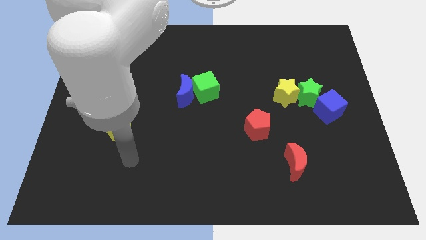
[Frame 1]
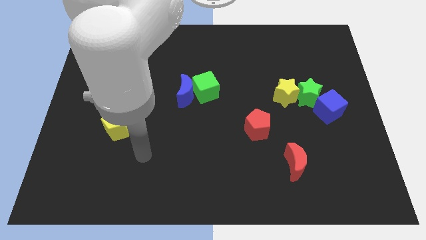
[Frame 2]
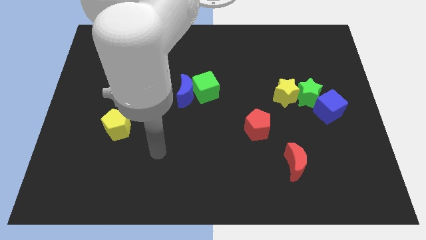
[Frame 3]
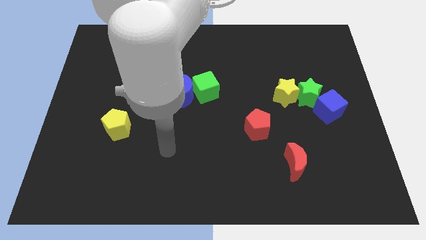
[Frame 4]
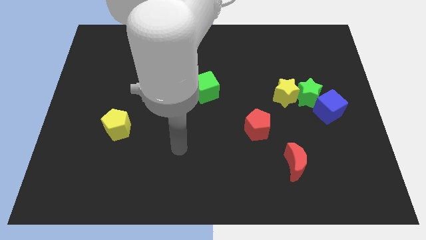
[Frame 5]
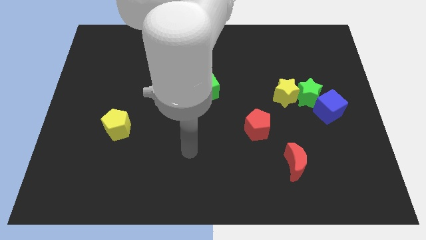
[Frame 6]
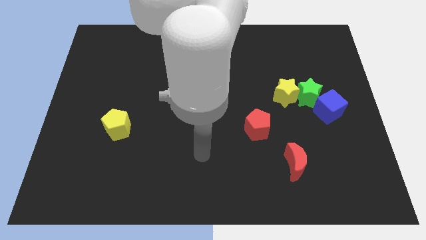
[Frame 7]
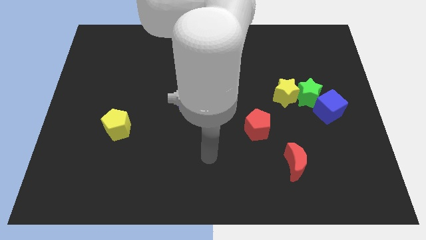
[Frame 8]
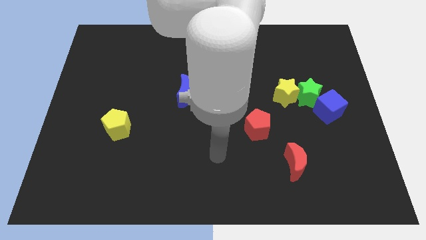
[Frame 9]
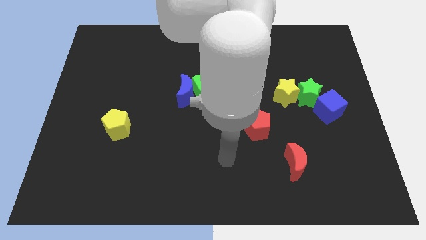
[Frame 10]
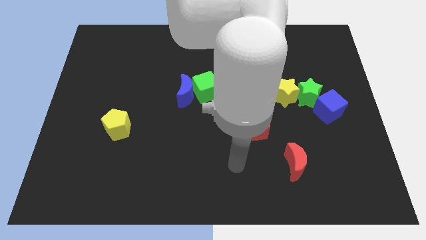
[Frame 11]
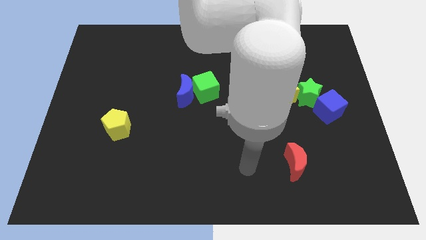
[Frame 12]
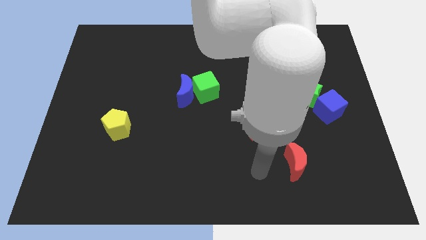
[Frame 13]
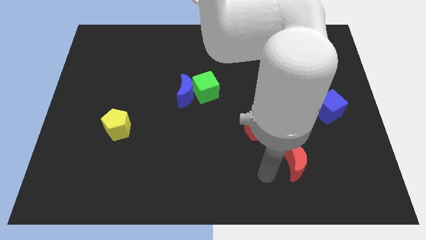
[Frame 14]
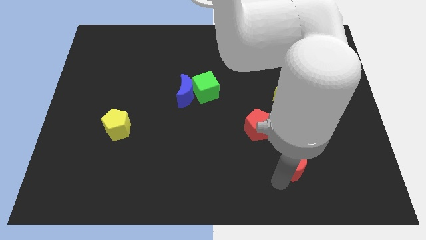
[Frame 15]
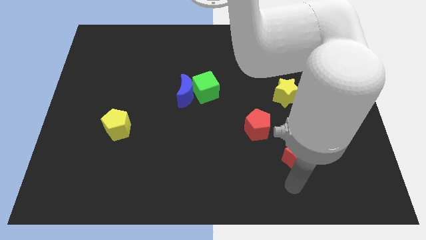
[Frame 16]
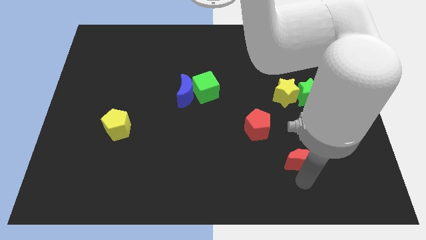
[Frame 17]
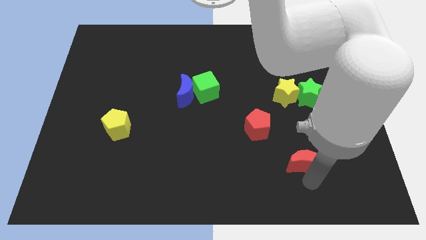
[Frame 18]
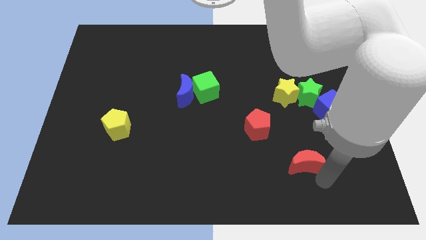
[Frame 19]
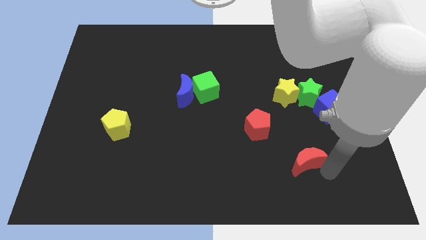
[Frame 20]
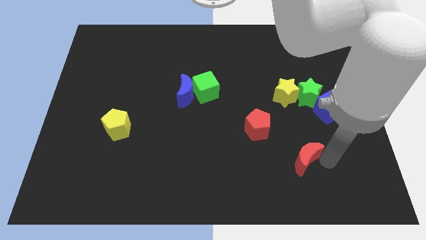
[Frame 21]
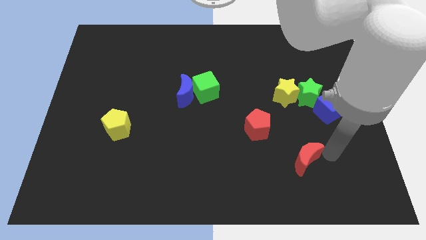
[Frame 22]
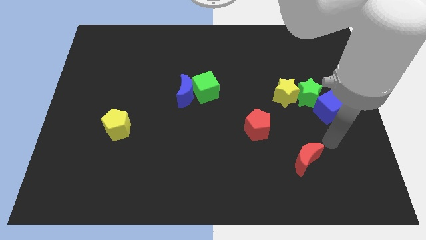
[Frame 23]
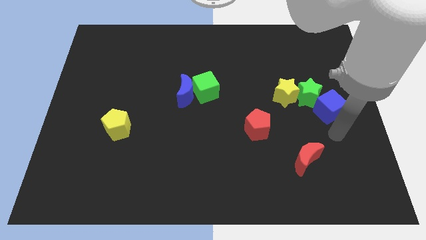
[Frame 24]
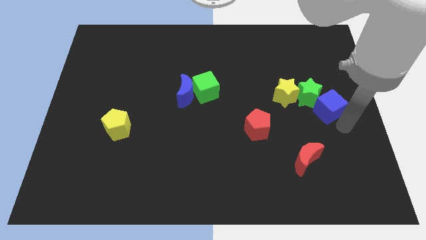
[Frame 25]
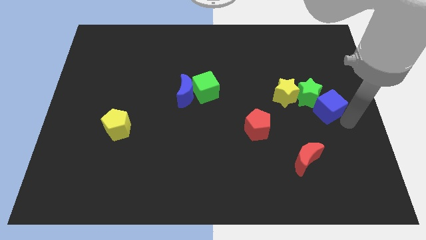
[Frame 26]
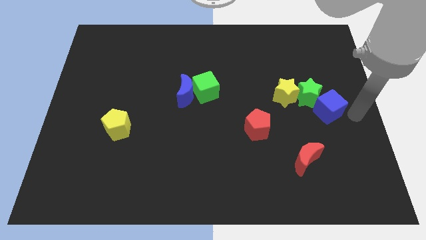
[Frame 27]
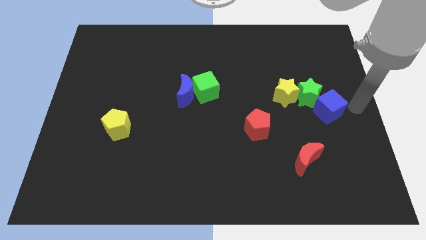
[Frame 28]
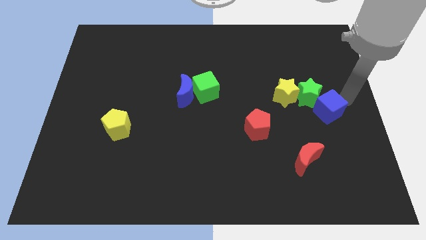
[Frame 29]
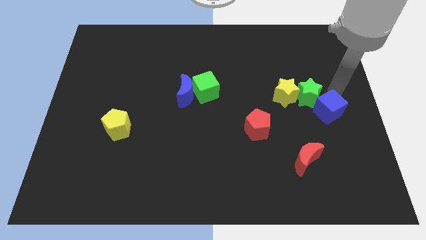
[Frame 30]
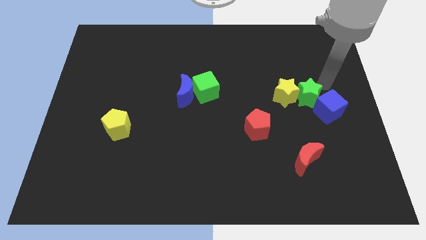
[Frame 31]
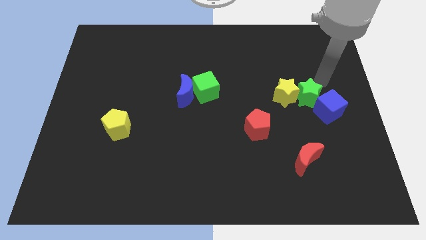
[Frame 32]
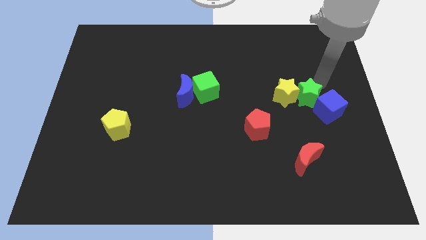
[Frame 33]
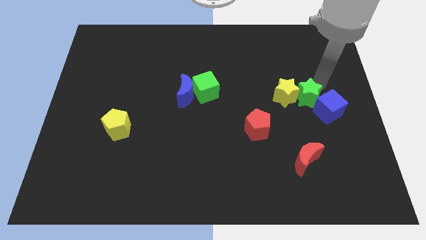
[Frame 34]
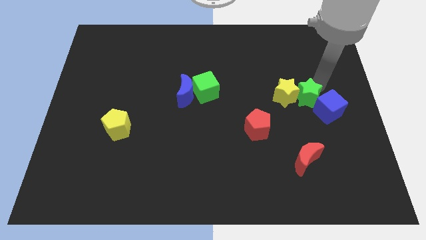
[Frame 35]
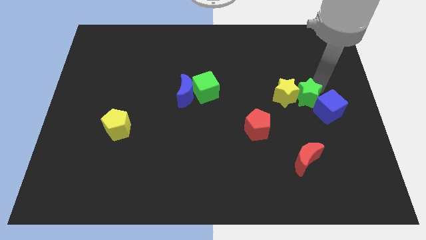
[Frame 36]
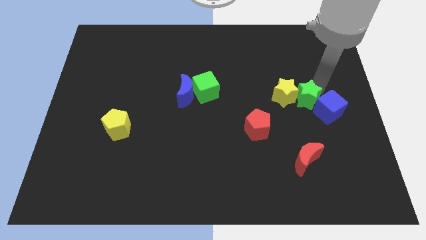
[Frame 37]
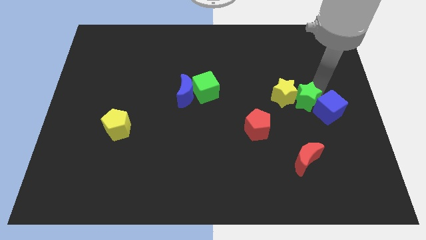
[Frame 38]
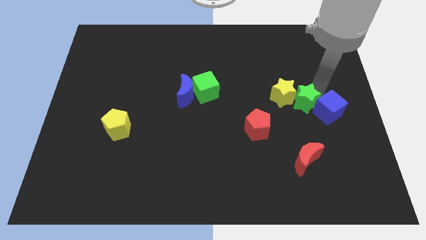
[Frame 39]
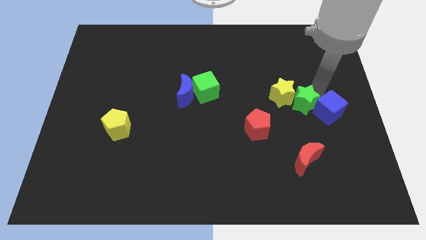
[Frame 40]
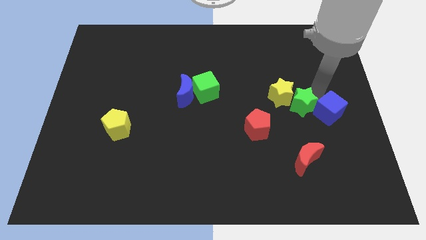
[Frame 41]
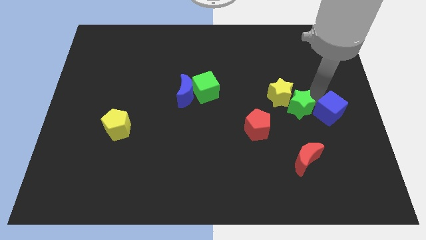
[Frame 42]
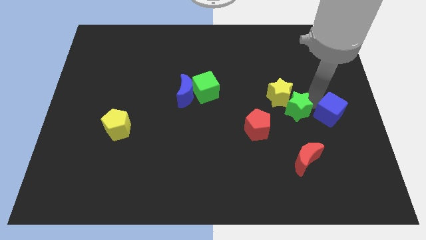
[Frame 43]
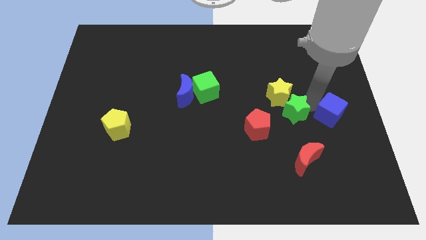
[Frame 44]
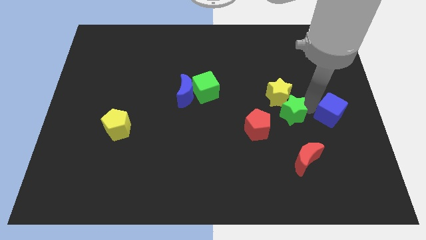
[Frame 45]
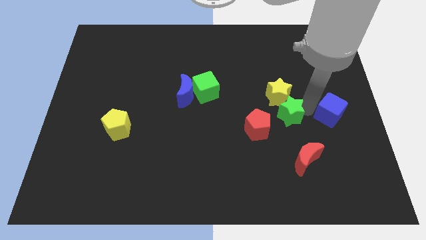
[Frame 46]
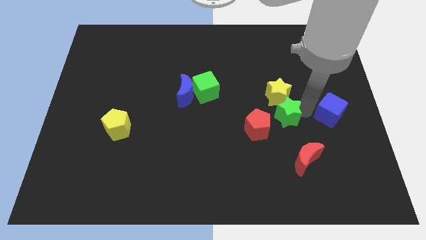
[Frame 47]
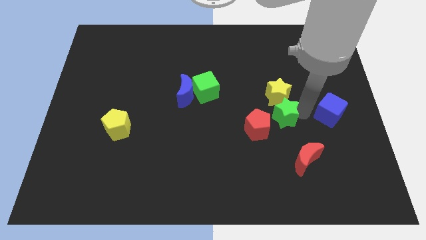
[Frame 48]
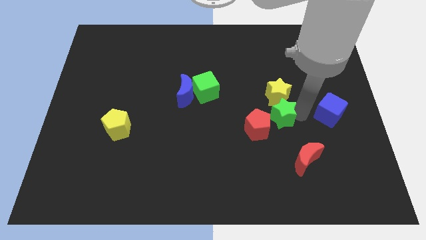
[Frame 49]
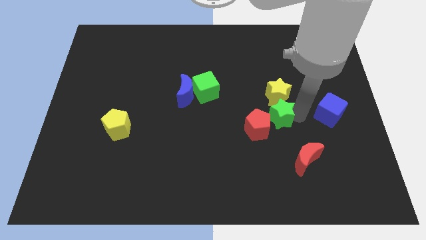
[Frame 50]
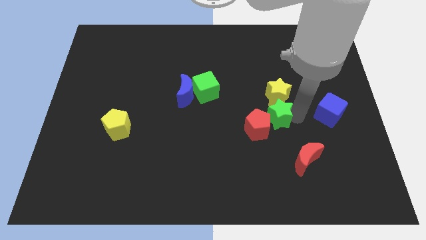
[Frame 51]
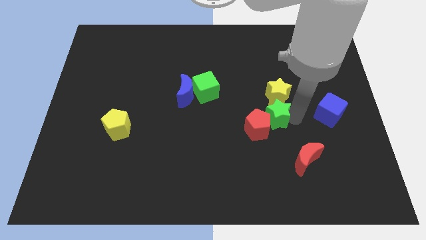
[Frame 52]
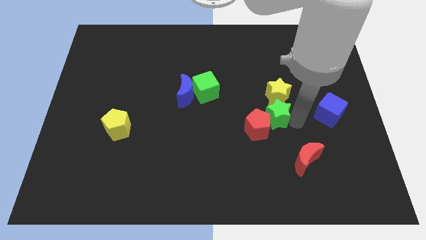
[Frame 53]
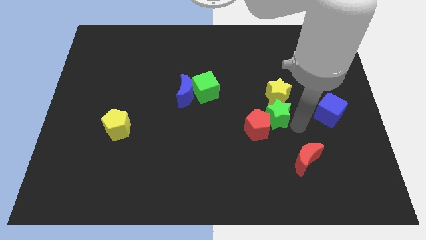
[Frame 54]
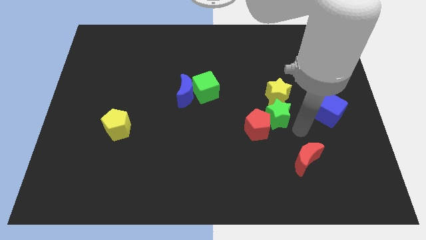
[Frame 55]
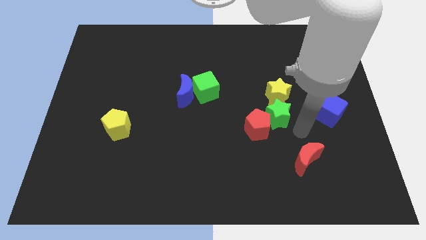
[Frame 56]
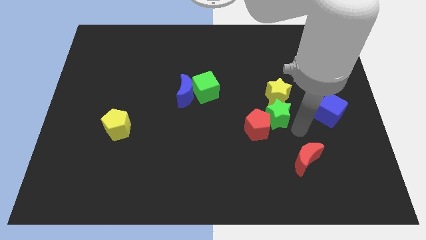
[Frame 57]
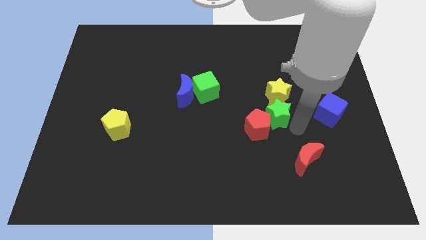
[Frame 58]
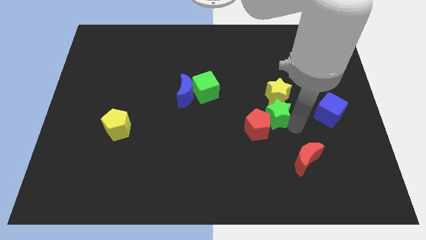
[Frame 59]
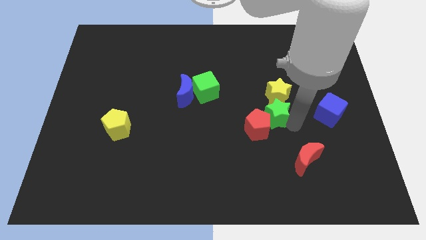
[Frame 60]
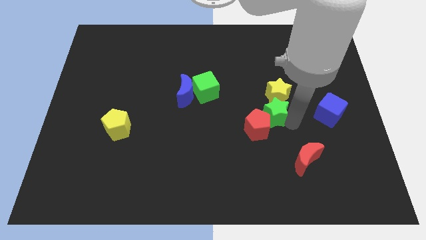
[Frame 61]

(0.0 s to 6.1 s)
slightly slide the green star left

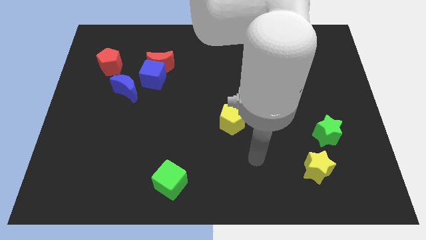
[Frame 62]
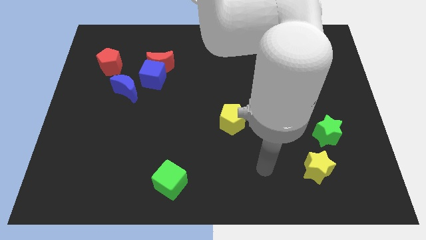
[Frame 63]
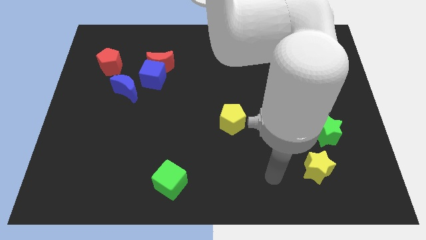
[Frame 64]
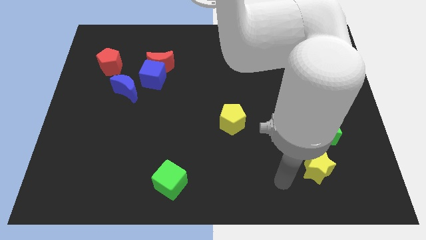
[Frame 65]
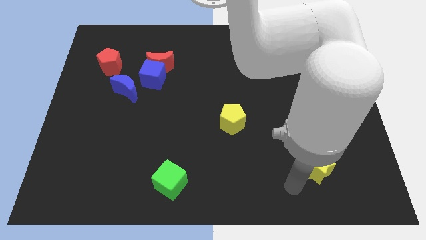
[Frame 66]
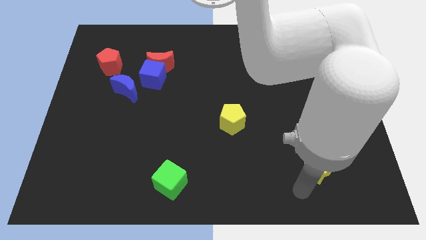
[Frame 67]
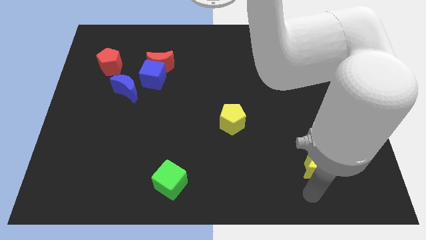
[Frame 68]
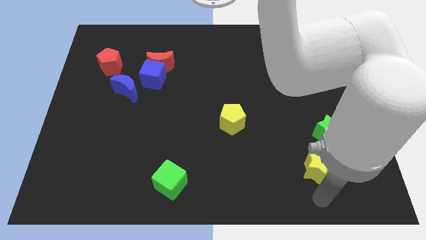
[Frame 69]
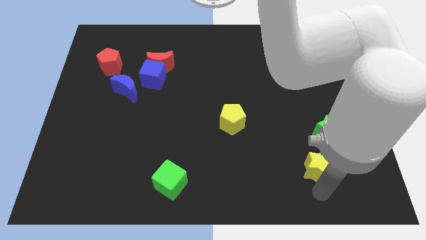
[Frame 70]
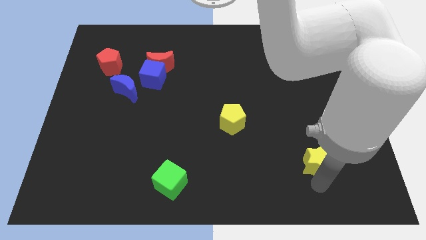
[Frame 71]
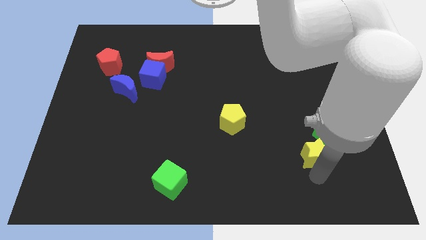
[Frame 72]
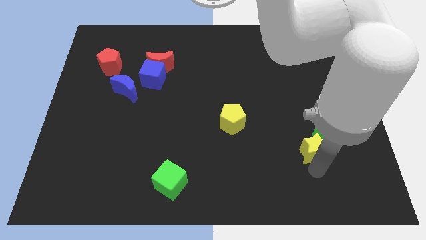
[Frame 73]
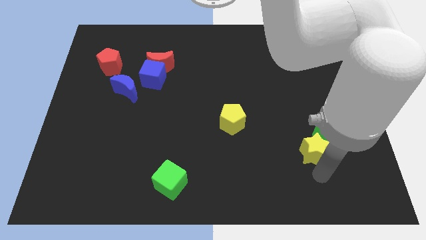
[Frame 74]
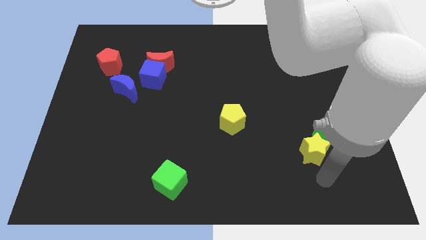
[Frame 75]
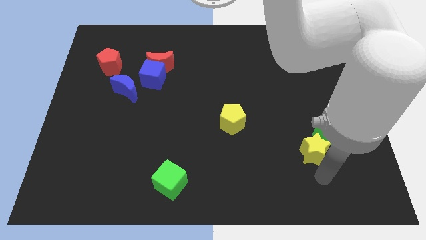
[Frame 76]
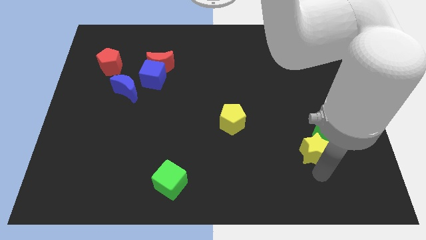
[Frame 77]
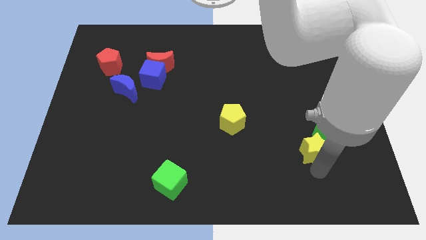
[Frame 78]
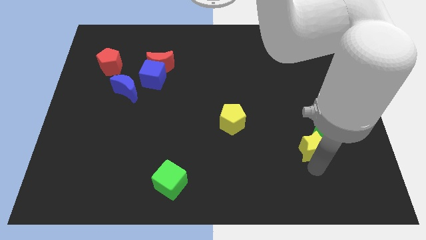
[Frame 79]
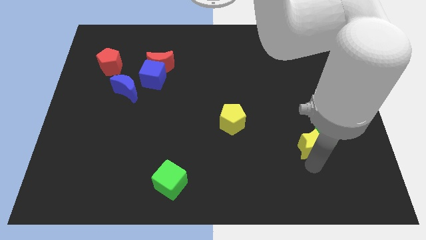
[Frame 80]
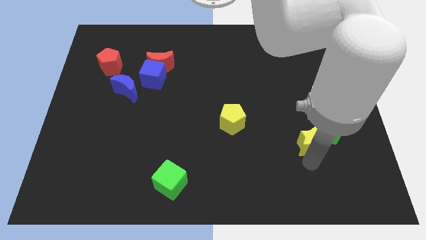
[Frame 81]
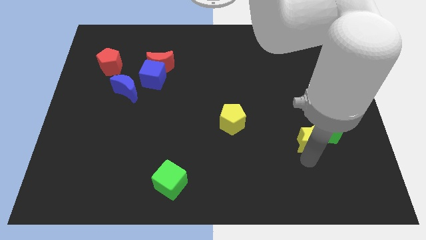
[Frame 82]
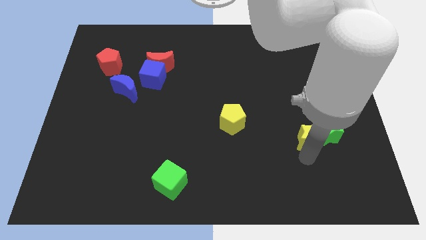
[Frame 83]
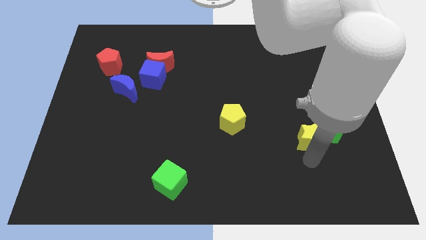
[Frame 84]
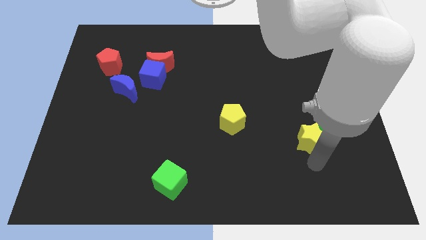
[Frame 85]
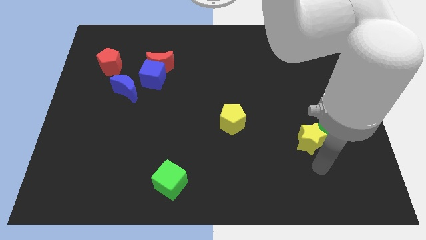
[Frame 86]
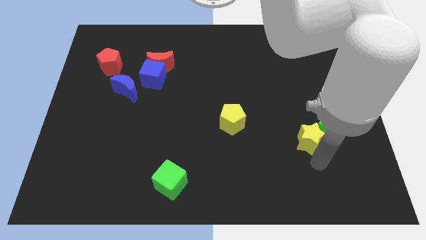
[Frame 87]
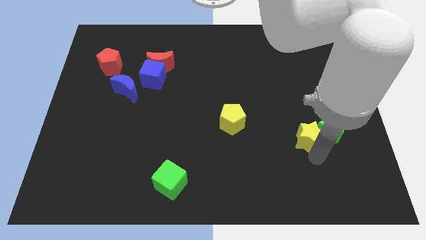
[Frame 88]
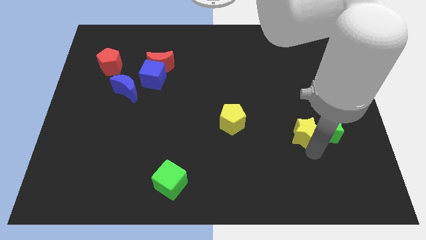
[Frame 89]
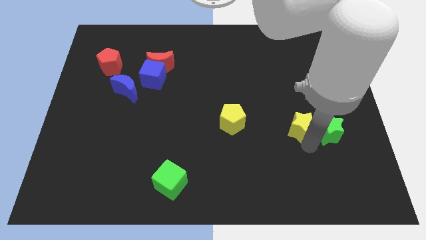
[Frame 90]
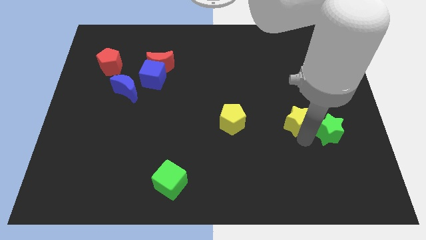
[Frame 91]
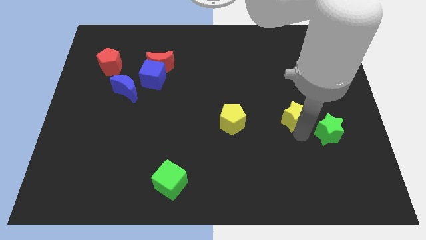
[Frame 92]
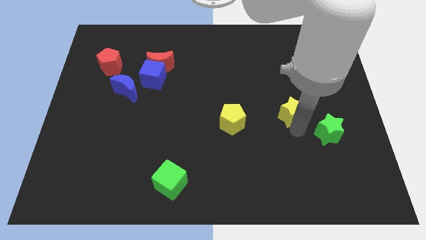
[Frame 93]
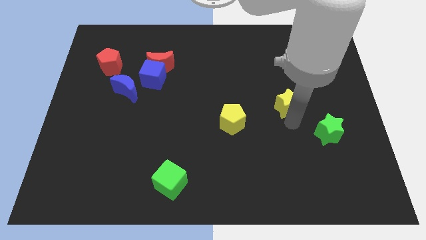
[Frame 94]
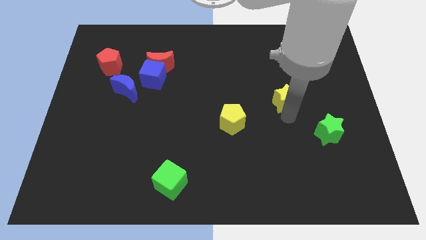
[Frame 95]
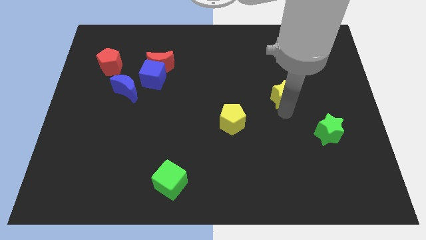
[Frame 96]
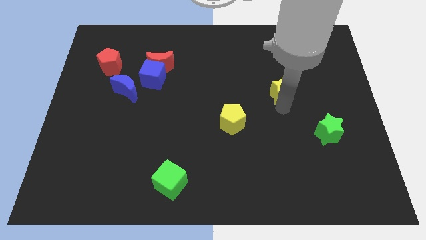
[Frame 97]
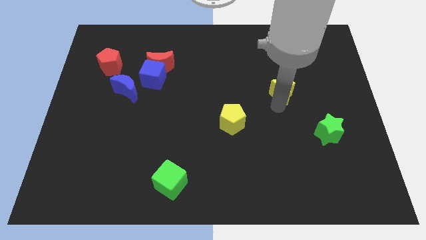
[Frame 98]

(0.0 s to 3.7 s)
push the yellow star upwards
